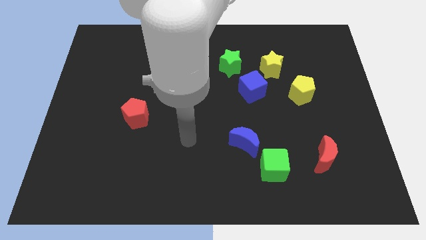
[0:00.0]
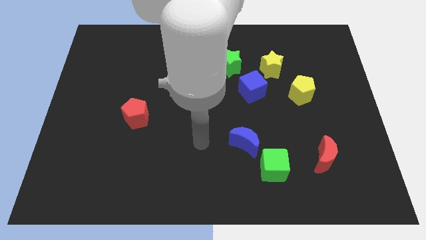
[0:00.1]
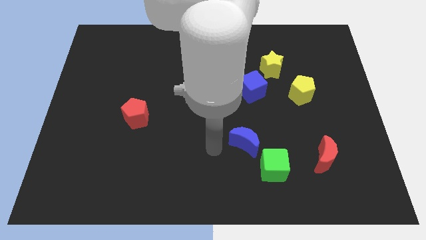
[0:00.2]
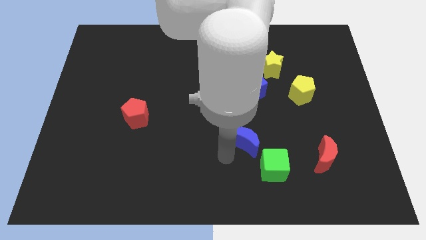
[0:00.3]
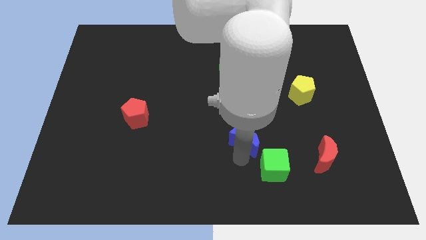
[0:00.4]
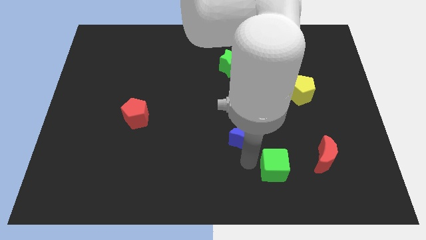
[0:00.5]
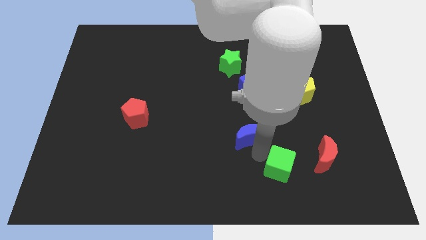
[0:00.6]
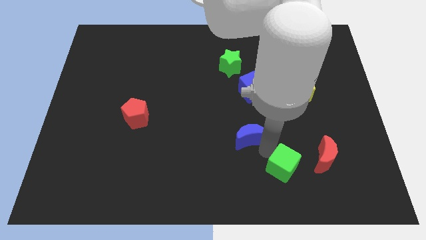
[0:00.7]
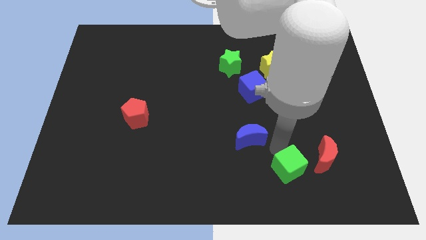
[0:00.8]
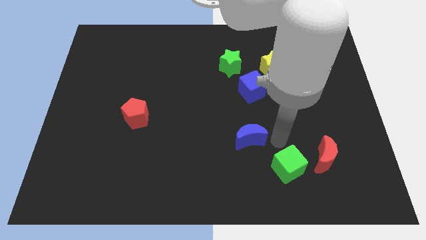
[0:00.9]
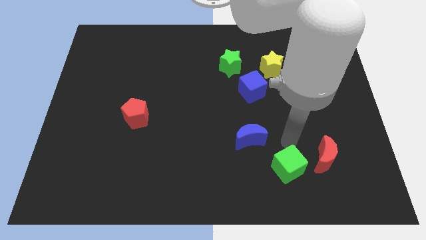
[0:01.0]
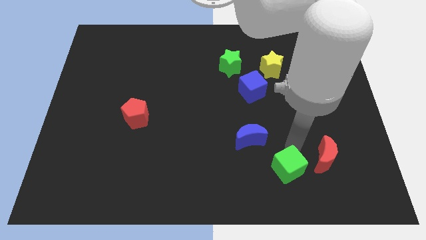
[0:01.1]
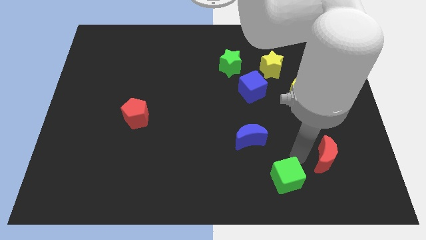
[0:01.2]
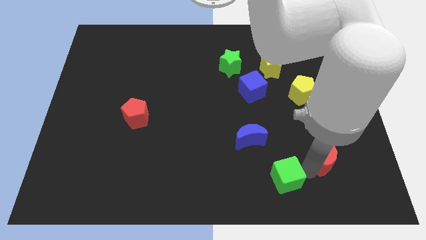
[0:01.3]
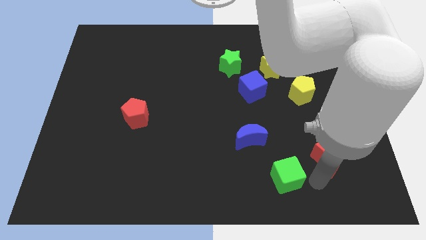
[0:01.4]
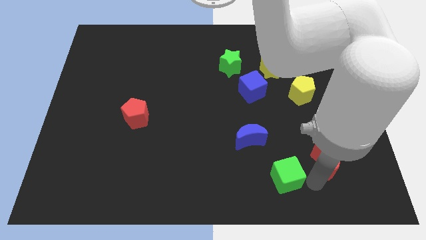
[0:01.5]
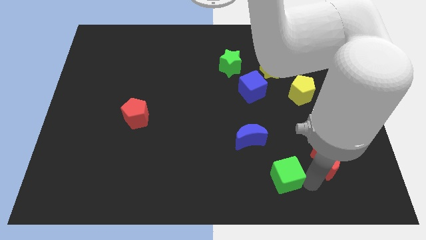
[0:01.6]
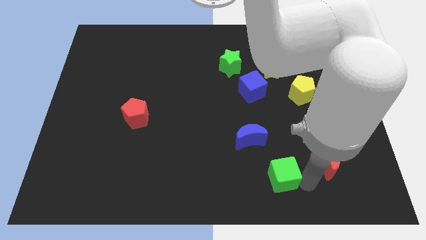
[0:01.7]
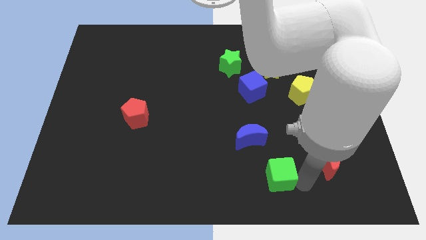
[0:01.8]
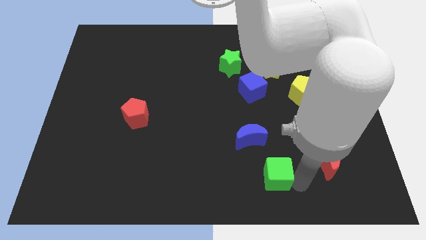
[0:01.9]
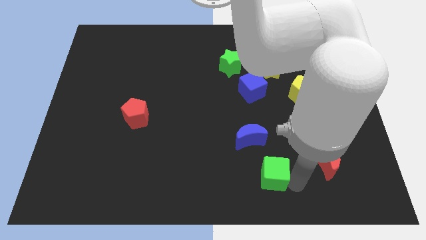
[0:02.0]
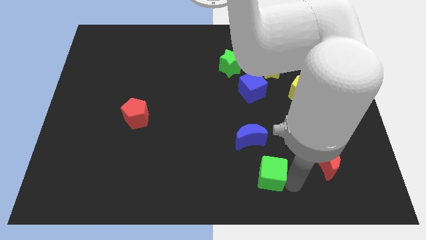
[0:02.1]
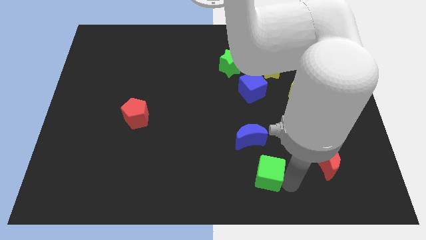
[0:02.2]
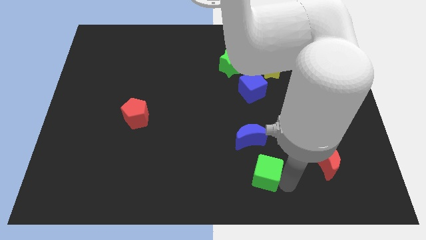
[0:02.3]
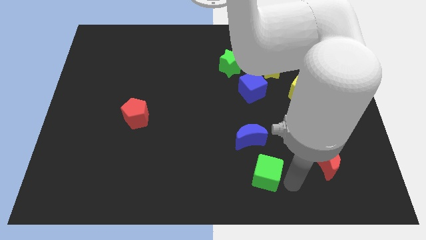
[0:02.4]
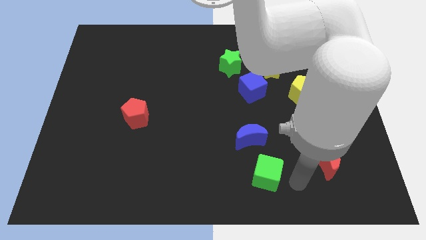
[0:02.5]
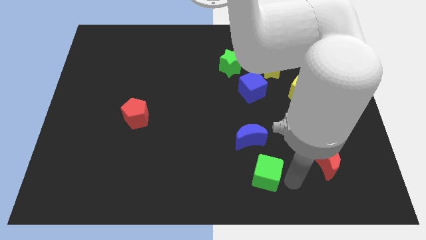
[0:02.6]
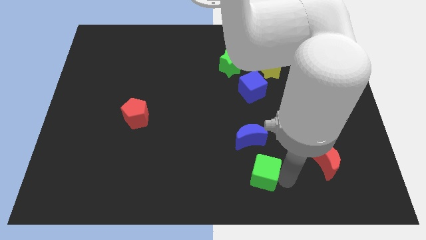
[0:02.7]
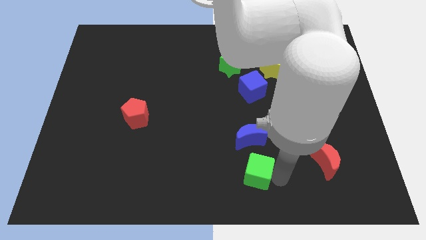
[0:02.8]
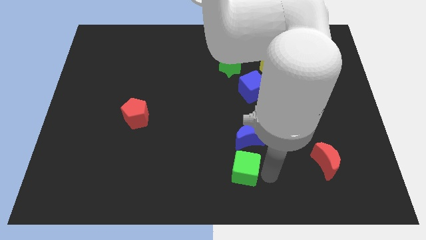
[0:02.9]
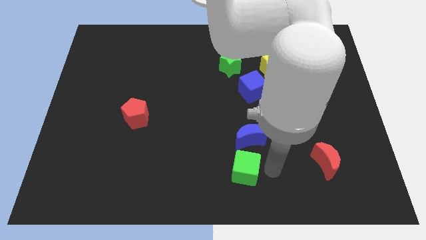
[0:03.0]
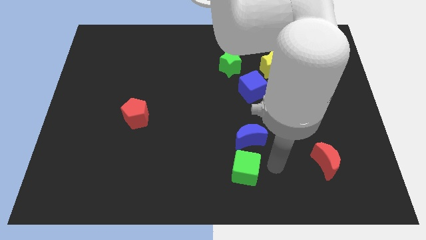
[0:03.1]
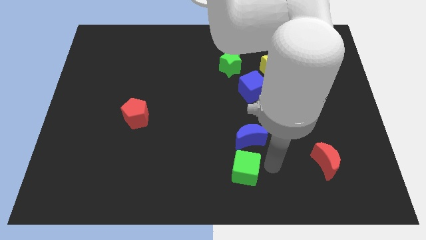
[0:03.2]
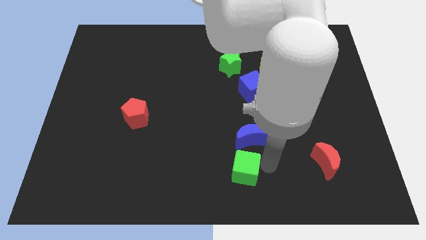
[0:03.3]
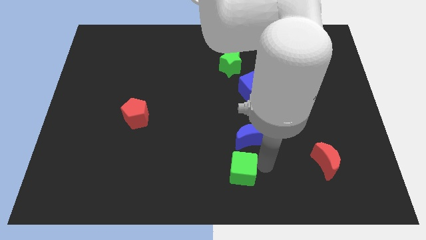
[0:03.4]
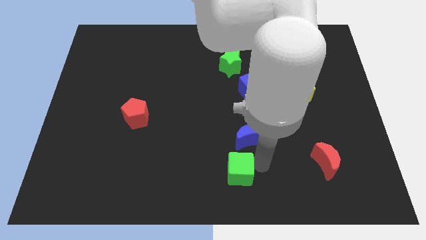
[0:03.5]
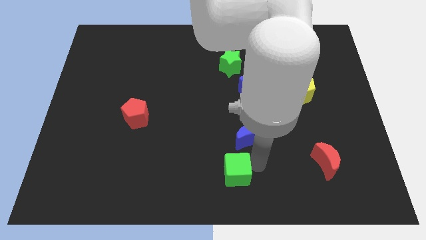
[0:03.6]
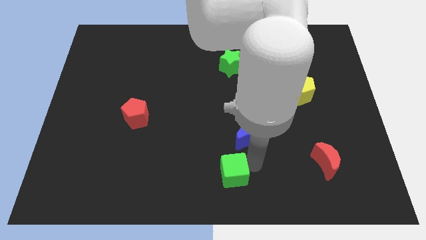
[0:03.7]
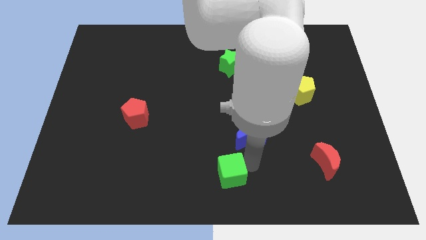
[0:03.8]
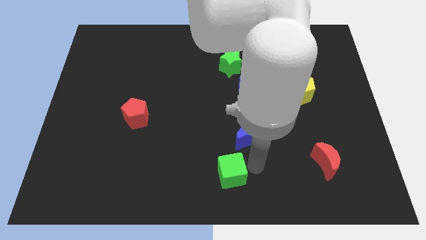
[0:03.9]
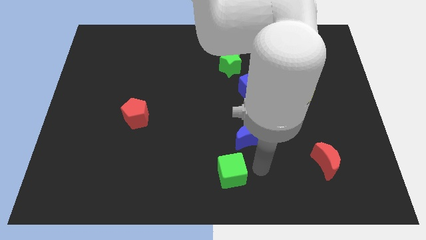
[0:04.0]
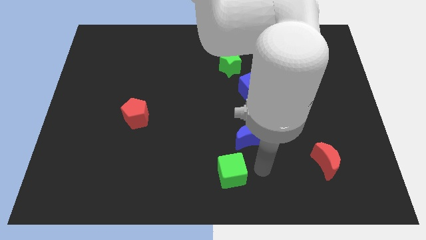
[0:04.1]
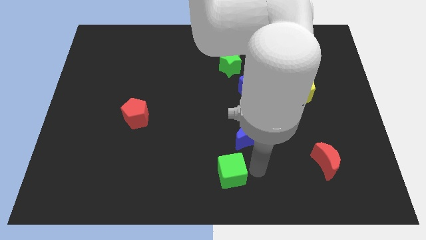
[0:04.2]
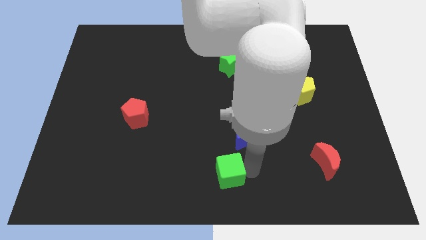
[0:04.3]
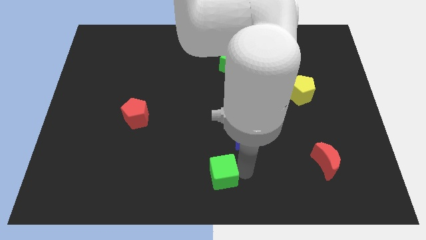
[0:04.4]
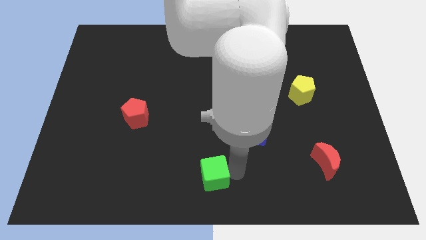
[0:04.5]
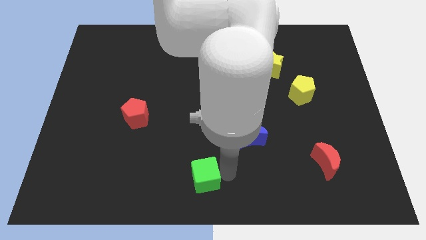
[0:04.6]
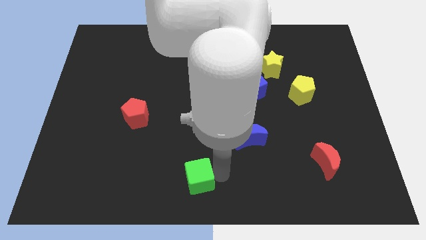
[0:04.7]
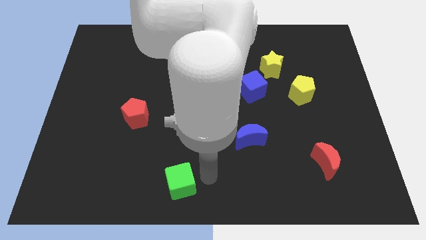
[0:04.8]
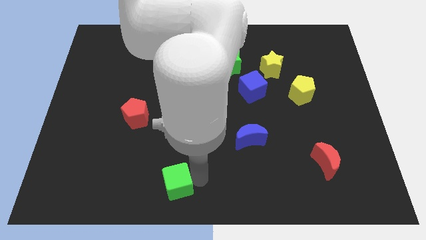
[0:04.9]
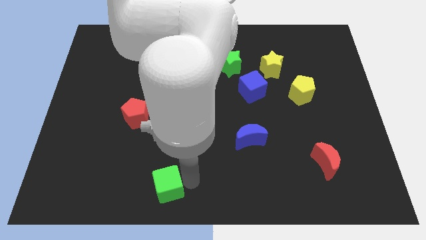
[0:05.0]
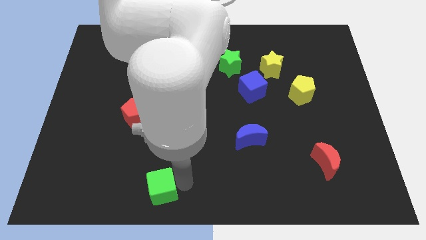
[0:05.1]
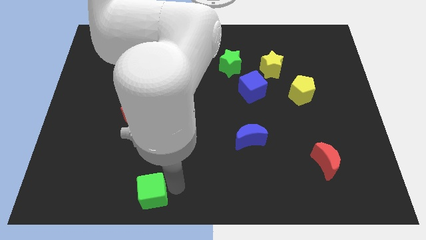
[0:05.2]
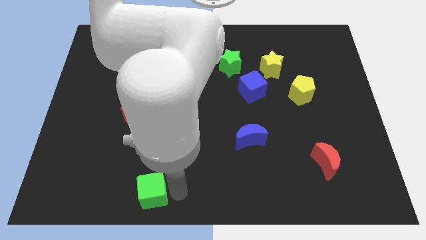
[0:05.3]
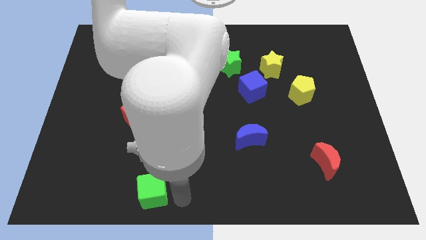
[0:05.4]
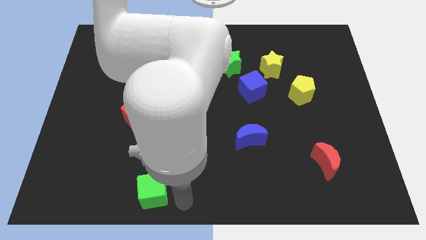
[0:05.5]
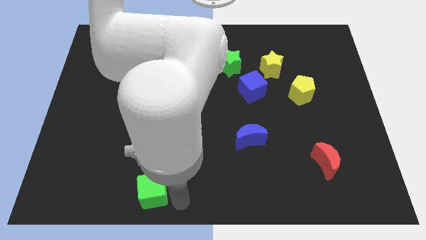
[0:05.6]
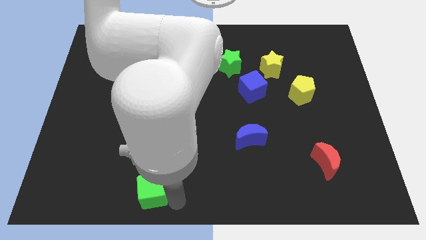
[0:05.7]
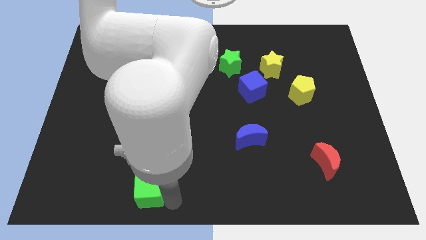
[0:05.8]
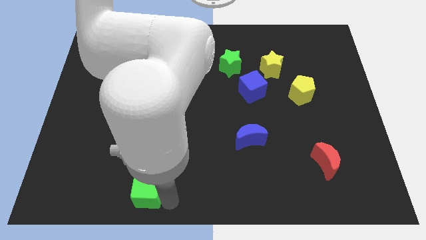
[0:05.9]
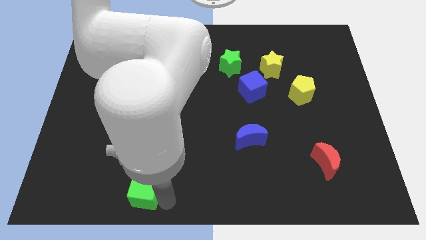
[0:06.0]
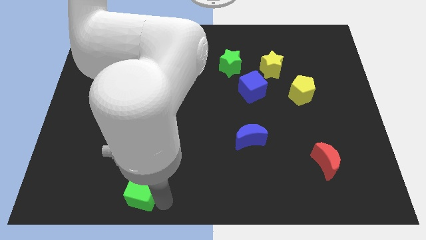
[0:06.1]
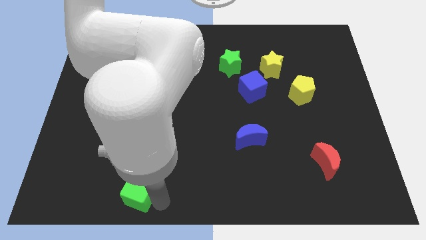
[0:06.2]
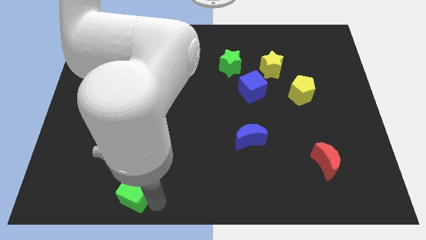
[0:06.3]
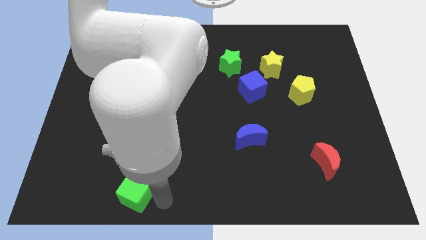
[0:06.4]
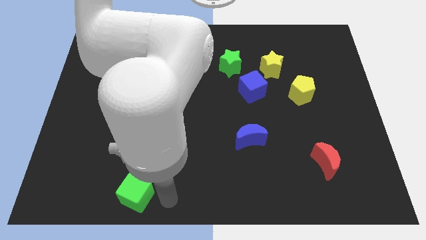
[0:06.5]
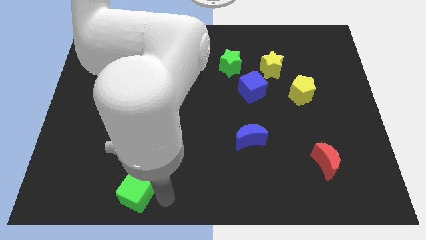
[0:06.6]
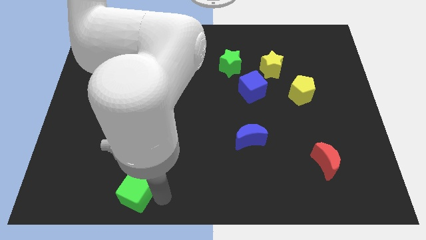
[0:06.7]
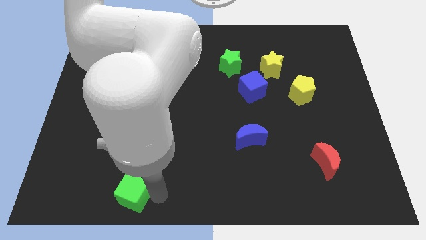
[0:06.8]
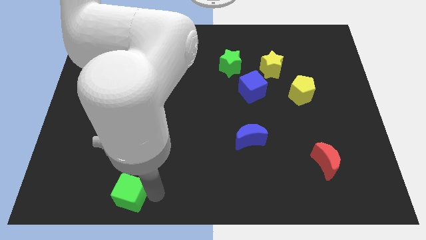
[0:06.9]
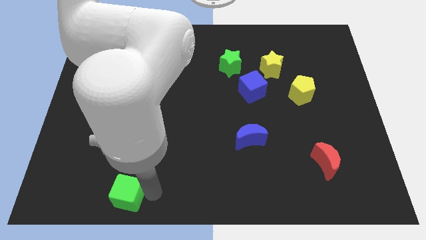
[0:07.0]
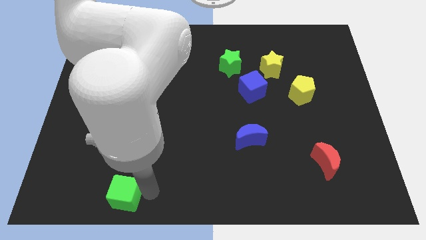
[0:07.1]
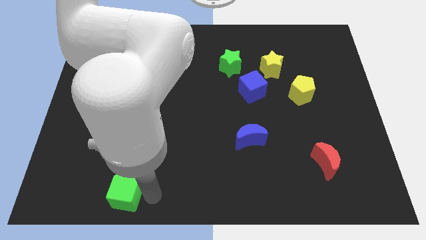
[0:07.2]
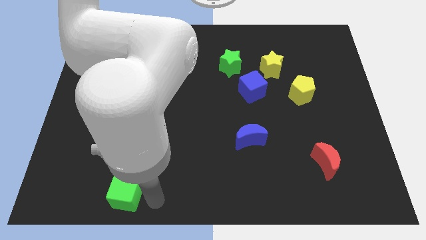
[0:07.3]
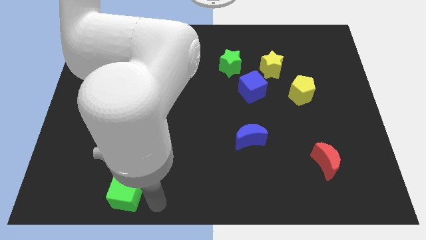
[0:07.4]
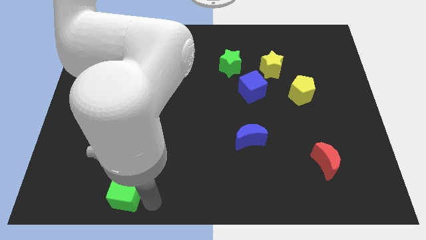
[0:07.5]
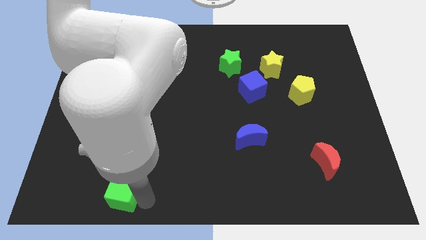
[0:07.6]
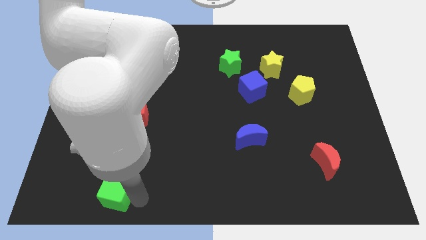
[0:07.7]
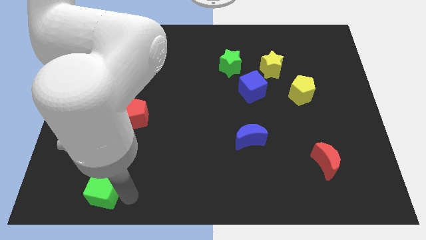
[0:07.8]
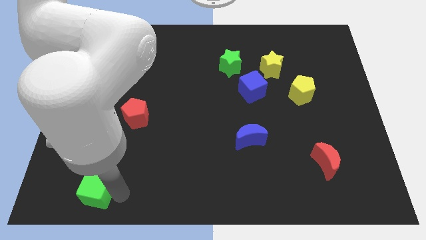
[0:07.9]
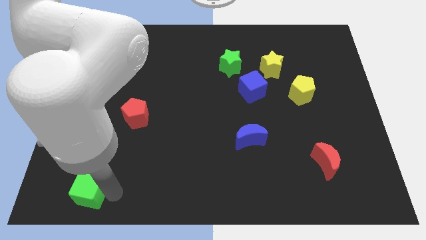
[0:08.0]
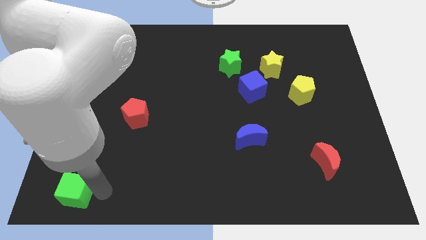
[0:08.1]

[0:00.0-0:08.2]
push the green cube to the lower left corner
